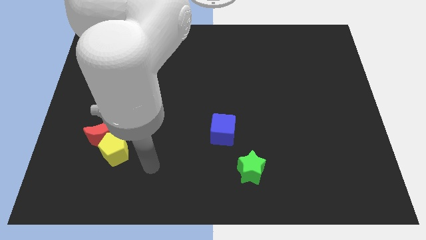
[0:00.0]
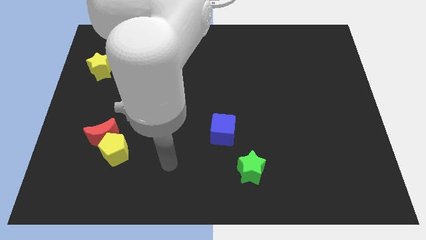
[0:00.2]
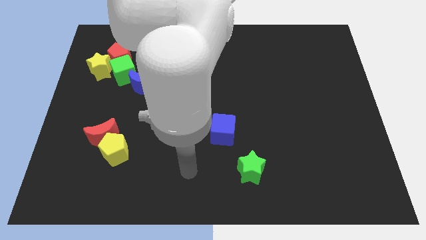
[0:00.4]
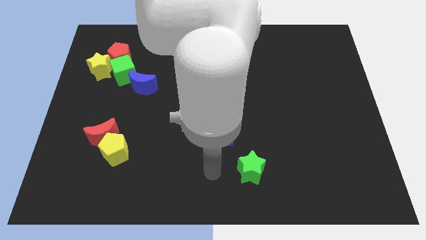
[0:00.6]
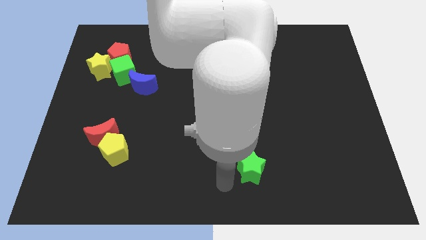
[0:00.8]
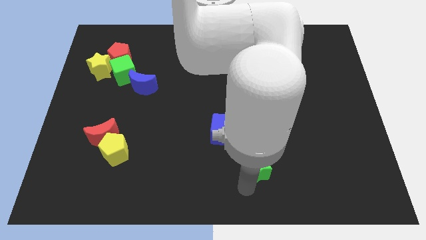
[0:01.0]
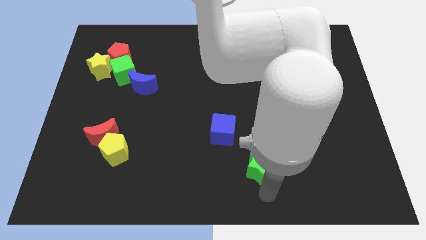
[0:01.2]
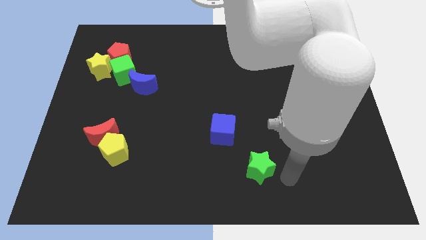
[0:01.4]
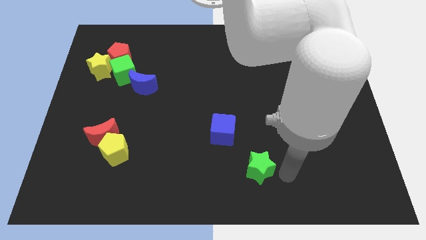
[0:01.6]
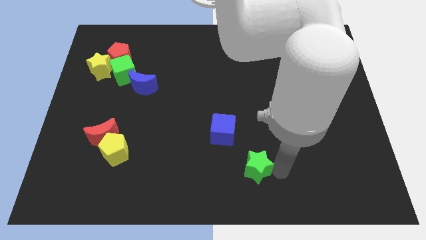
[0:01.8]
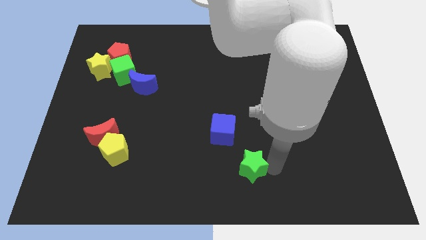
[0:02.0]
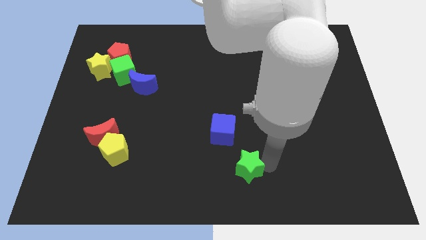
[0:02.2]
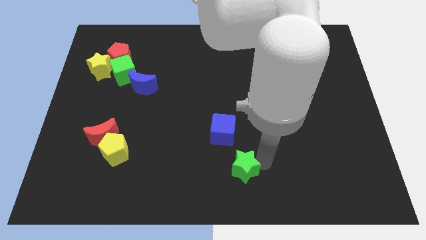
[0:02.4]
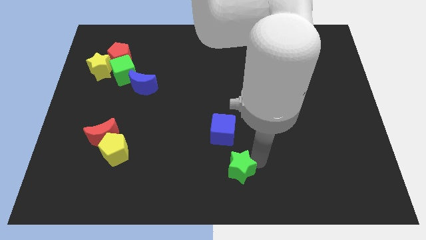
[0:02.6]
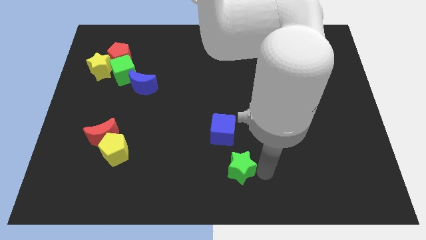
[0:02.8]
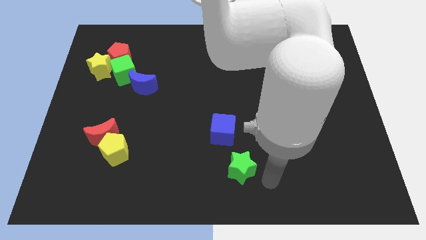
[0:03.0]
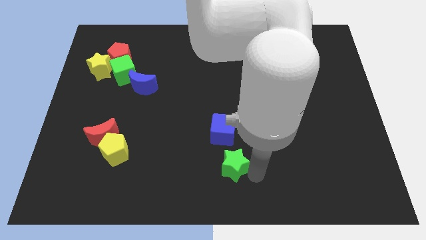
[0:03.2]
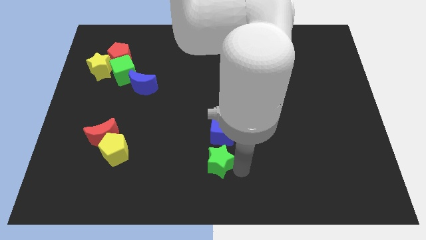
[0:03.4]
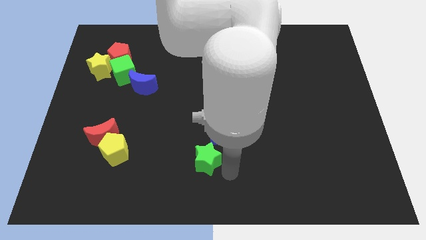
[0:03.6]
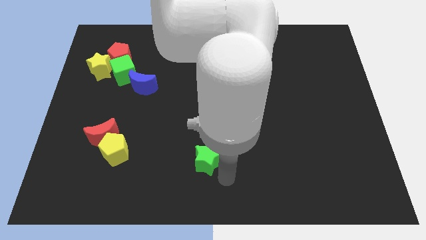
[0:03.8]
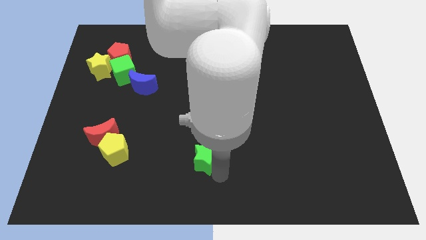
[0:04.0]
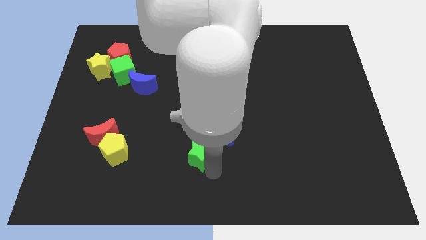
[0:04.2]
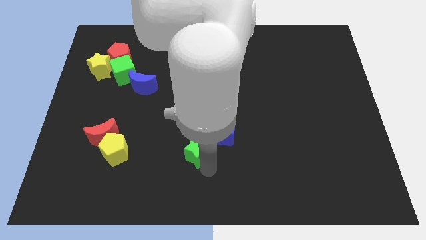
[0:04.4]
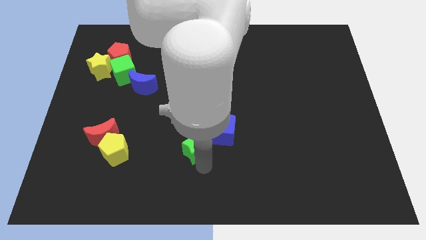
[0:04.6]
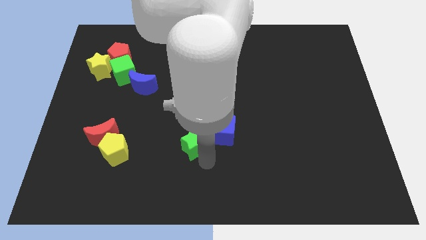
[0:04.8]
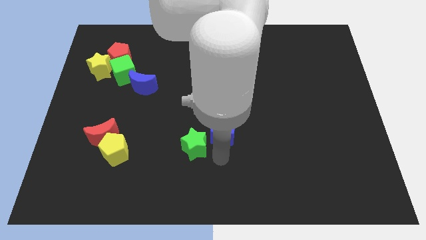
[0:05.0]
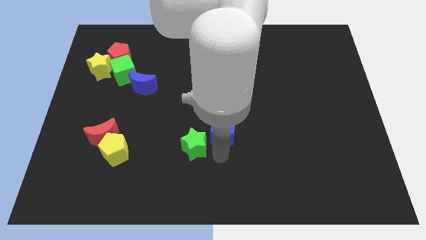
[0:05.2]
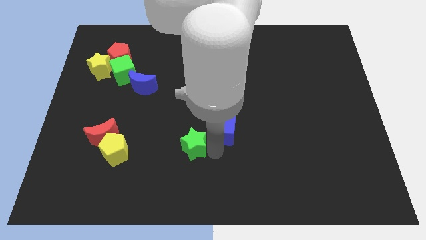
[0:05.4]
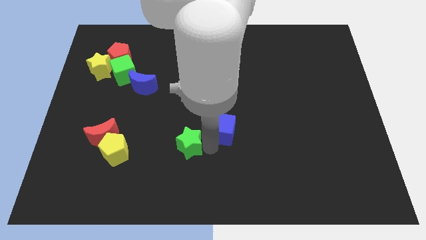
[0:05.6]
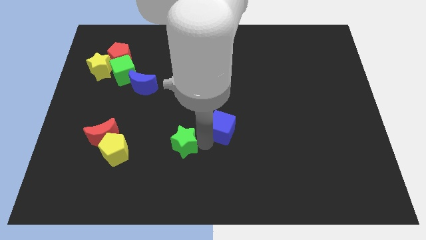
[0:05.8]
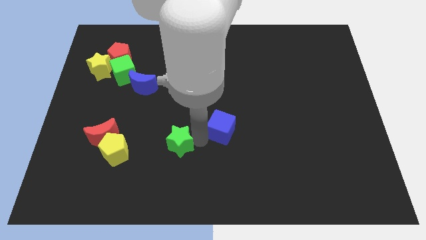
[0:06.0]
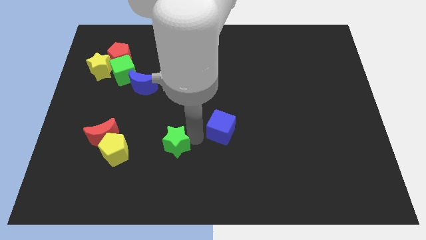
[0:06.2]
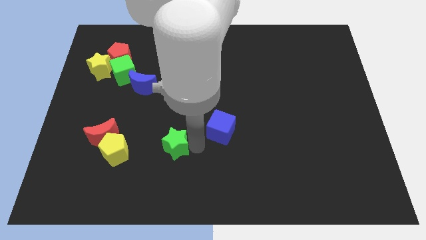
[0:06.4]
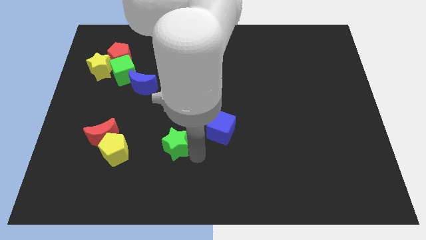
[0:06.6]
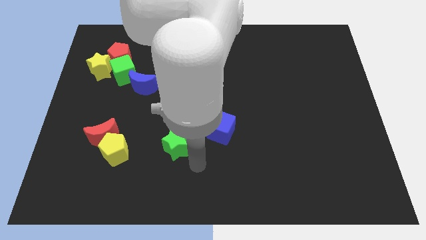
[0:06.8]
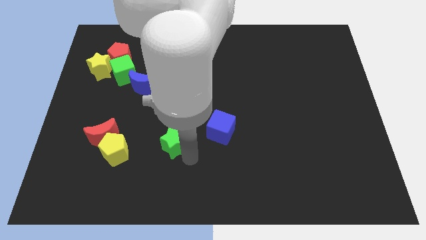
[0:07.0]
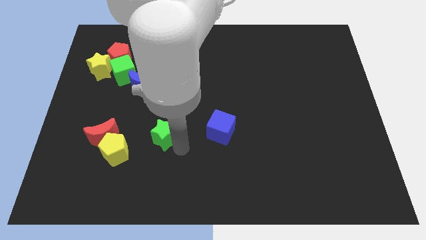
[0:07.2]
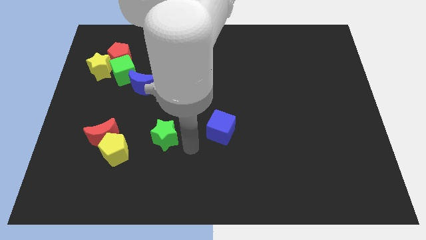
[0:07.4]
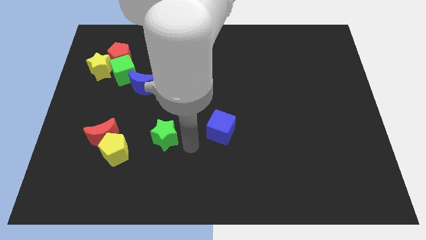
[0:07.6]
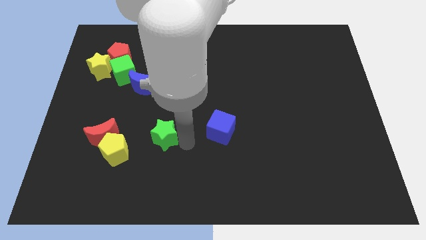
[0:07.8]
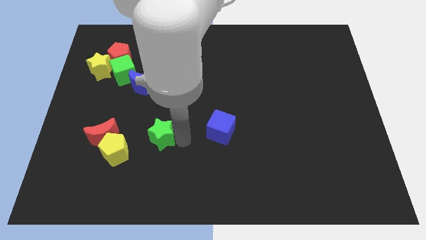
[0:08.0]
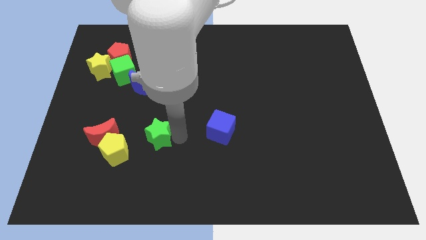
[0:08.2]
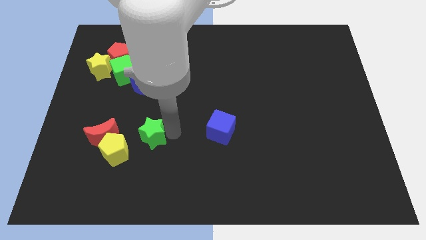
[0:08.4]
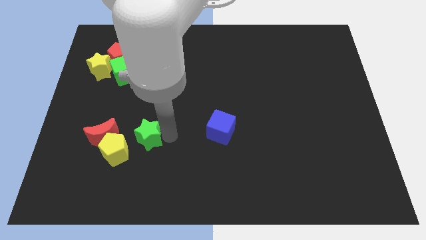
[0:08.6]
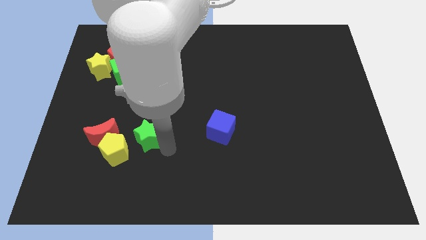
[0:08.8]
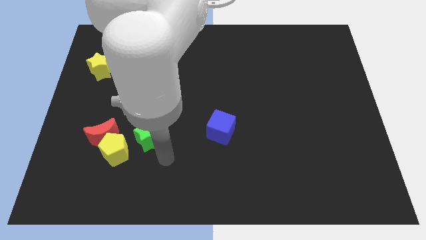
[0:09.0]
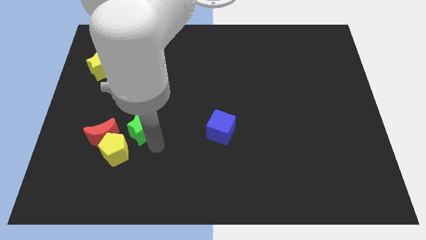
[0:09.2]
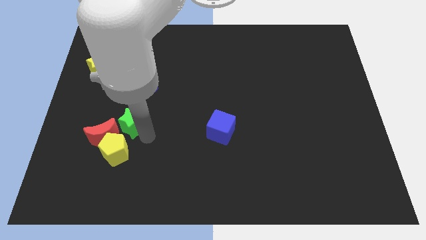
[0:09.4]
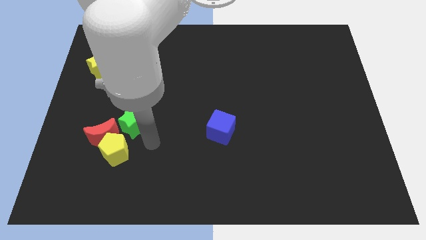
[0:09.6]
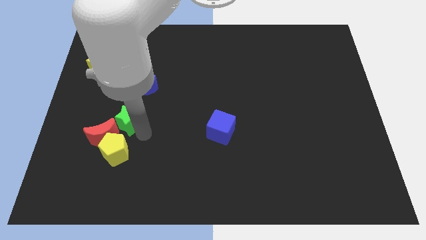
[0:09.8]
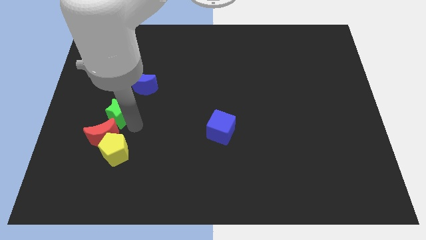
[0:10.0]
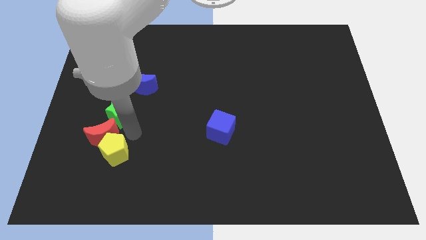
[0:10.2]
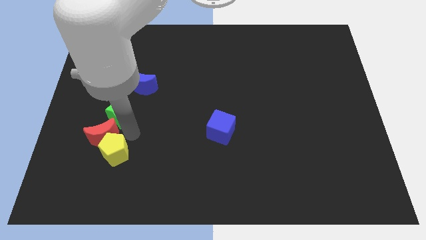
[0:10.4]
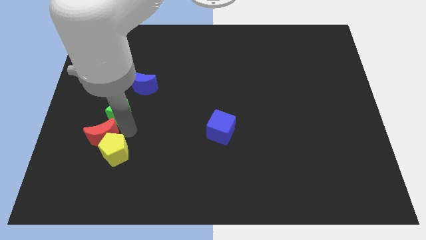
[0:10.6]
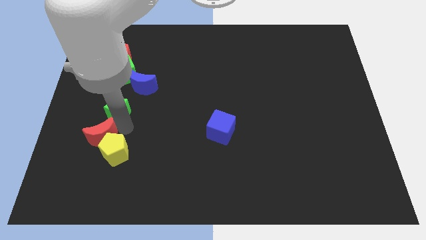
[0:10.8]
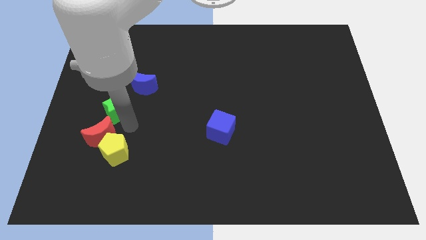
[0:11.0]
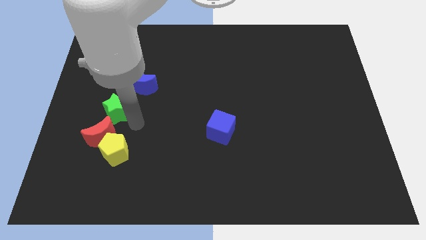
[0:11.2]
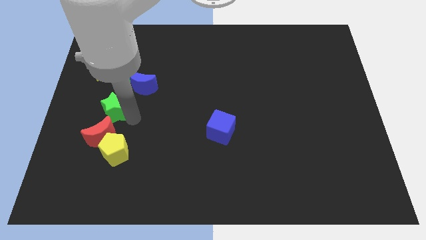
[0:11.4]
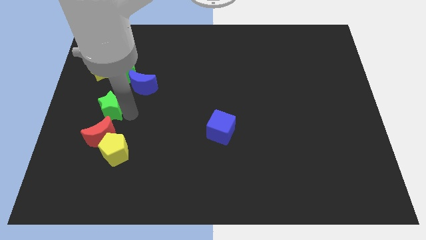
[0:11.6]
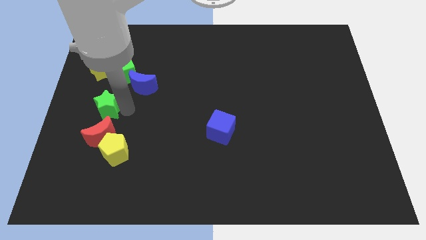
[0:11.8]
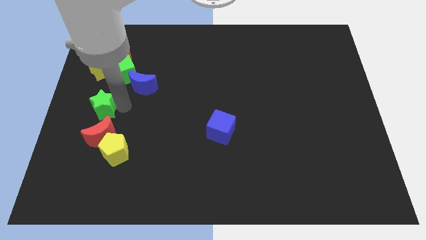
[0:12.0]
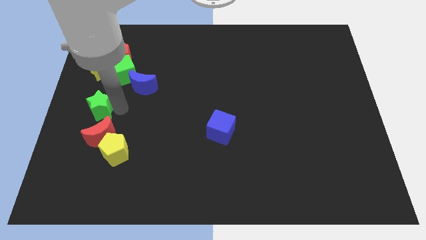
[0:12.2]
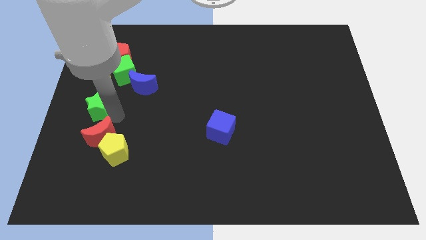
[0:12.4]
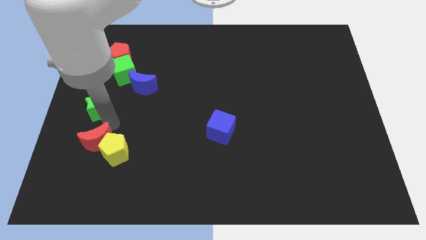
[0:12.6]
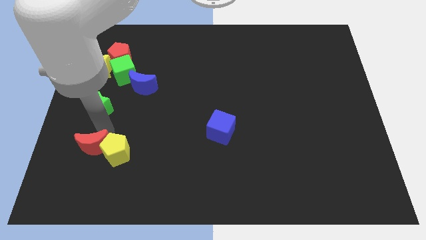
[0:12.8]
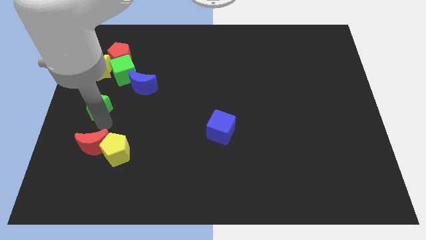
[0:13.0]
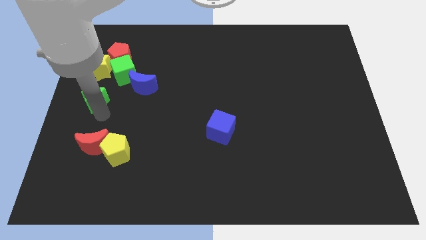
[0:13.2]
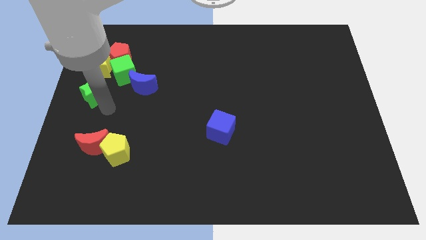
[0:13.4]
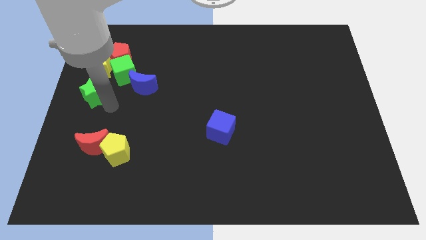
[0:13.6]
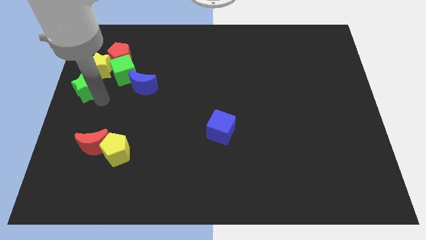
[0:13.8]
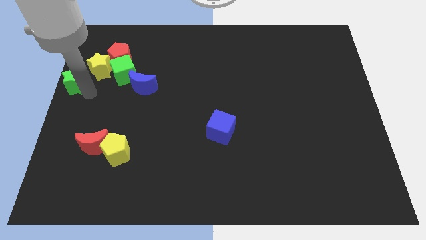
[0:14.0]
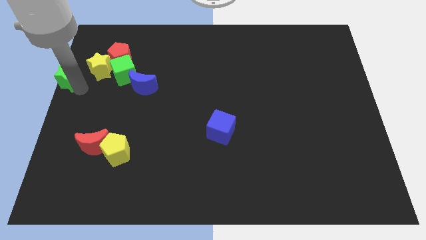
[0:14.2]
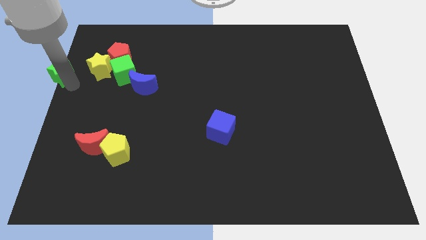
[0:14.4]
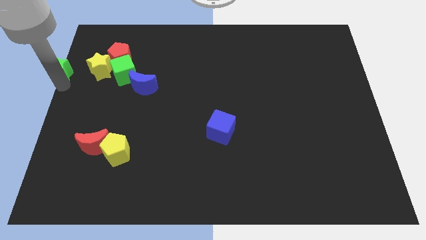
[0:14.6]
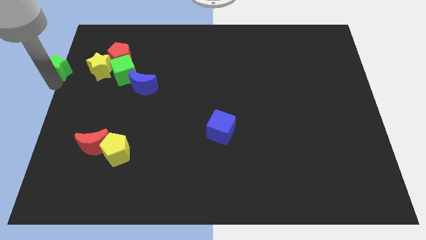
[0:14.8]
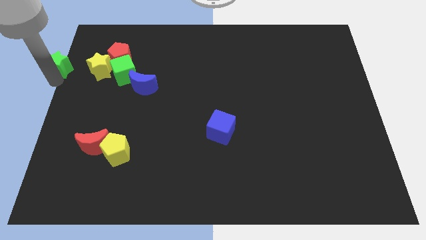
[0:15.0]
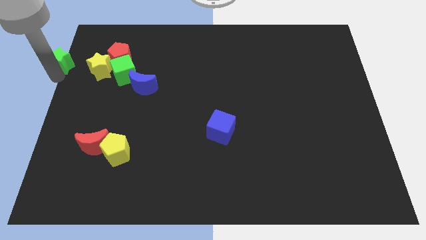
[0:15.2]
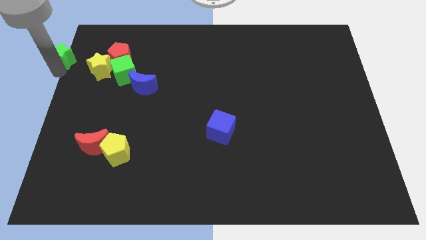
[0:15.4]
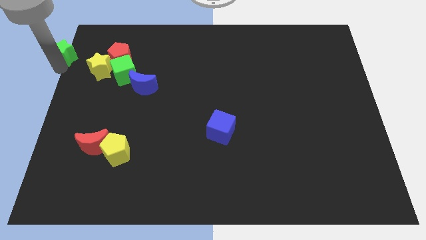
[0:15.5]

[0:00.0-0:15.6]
put the green star to the top left corner
